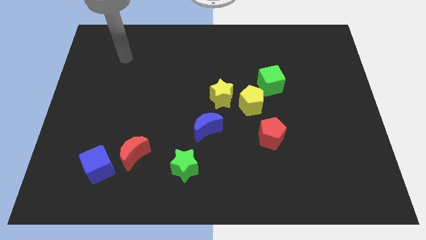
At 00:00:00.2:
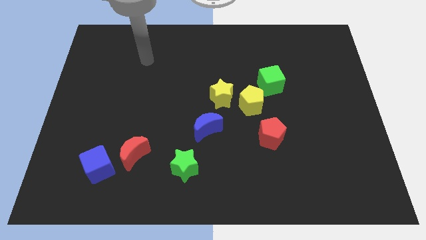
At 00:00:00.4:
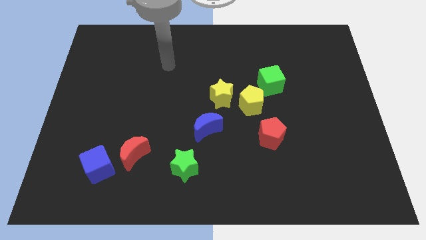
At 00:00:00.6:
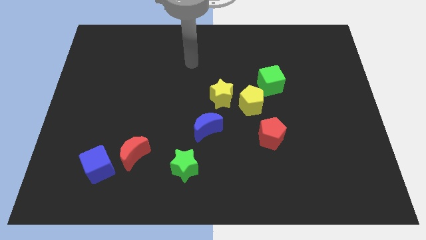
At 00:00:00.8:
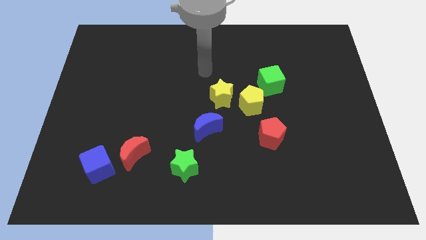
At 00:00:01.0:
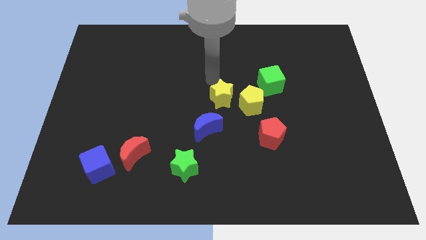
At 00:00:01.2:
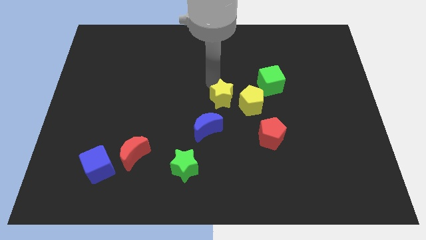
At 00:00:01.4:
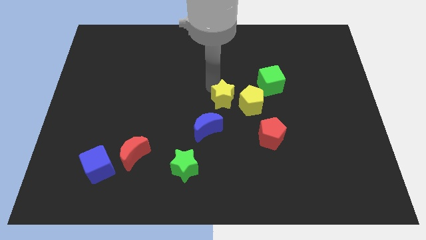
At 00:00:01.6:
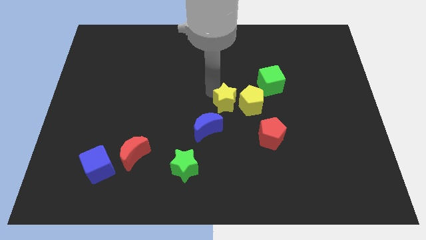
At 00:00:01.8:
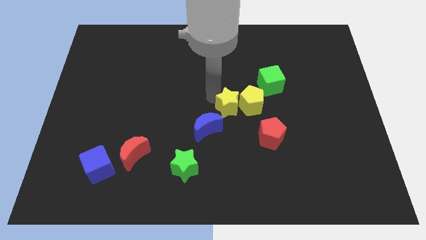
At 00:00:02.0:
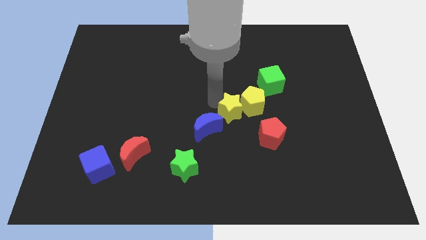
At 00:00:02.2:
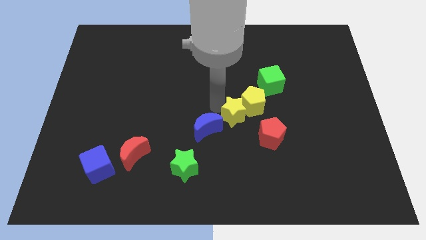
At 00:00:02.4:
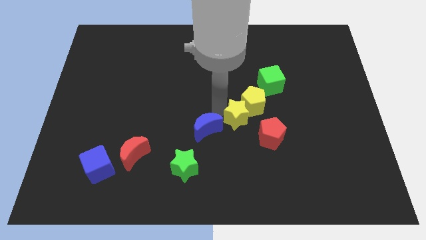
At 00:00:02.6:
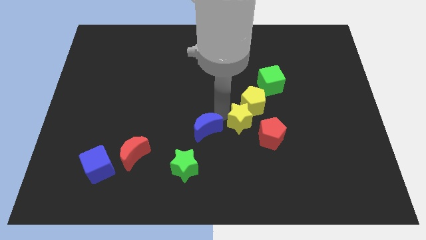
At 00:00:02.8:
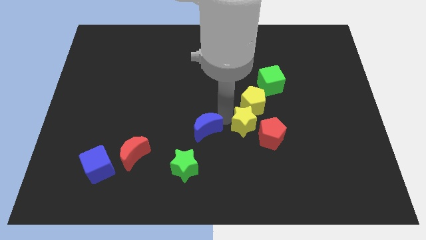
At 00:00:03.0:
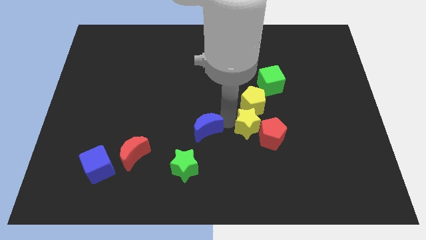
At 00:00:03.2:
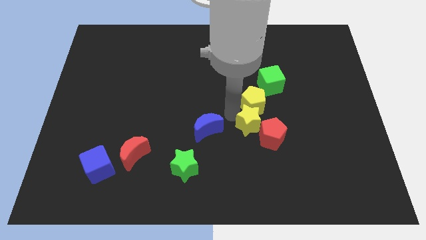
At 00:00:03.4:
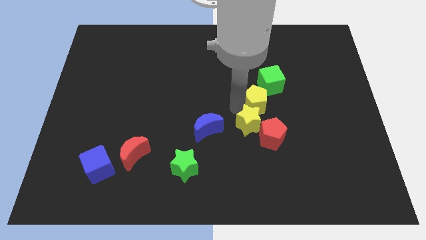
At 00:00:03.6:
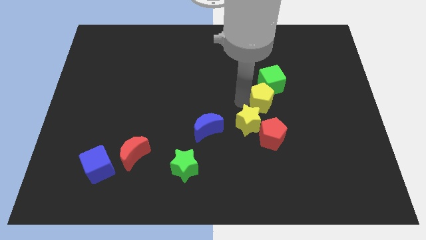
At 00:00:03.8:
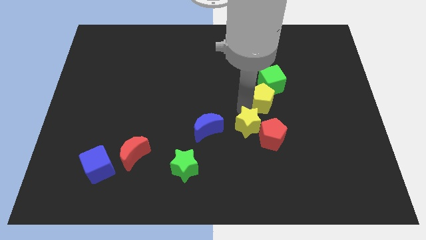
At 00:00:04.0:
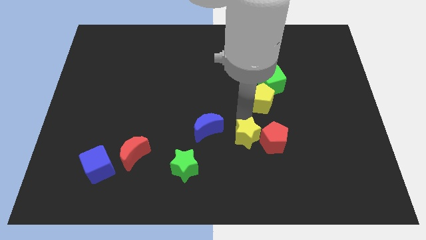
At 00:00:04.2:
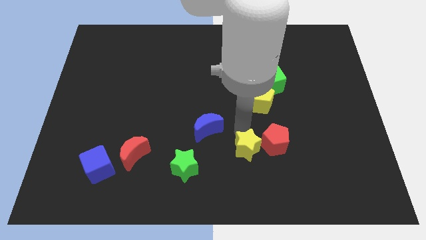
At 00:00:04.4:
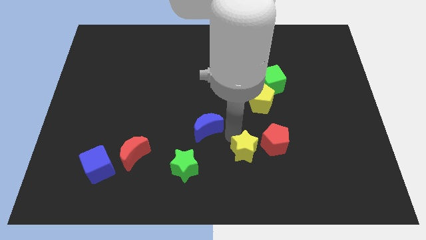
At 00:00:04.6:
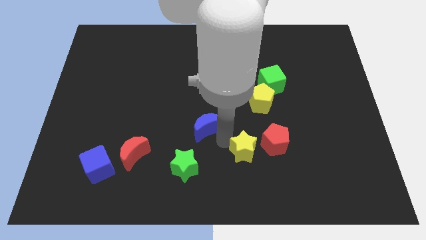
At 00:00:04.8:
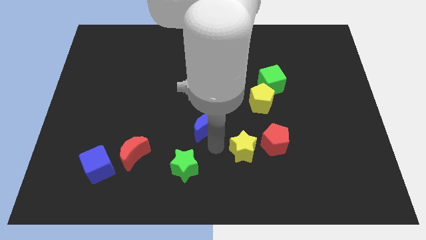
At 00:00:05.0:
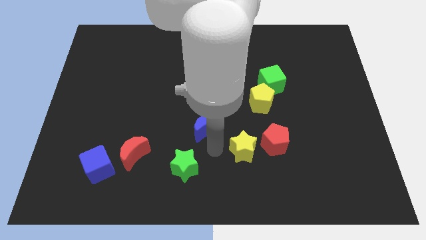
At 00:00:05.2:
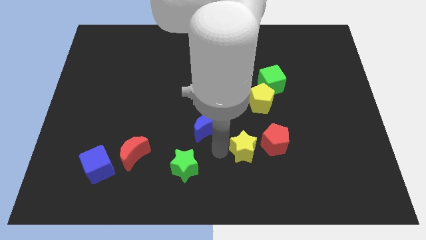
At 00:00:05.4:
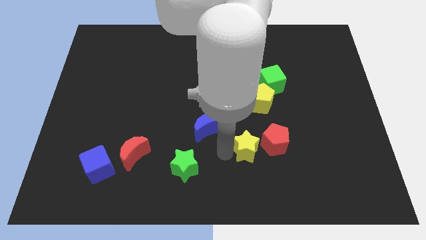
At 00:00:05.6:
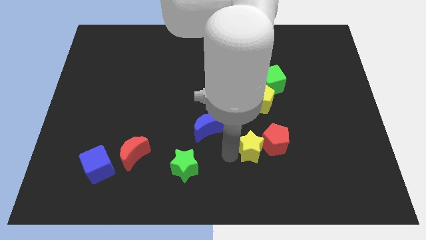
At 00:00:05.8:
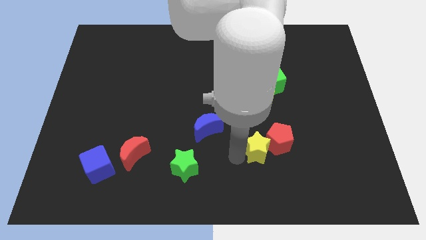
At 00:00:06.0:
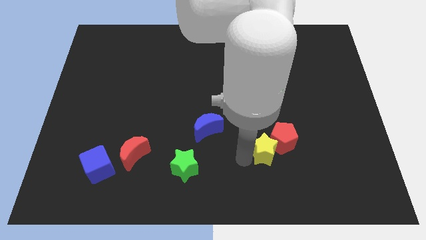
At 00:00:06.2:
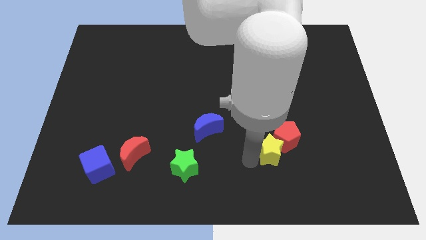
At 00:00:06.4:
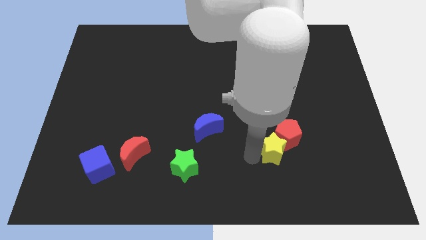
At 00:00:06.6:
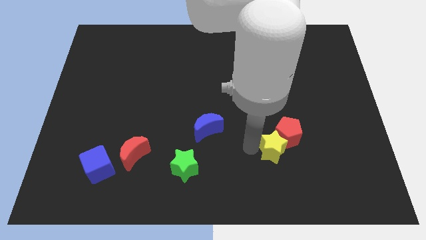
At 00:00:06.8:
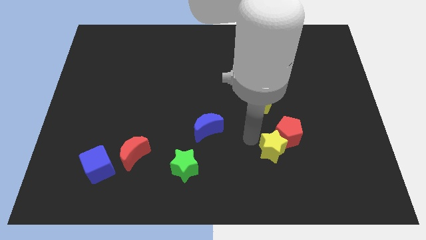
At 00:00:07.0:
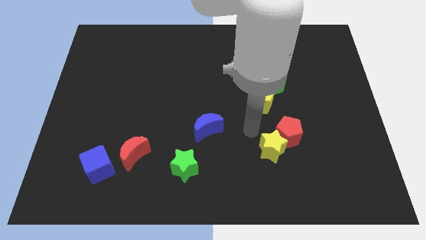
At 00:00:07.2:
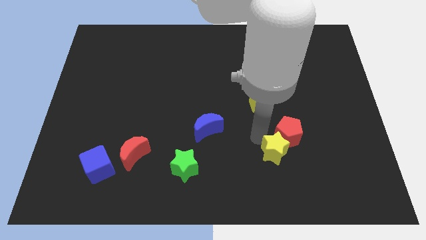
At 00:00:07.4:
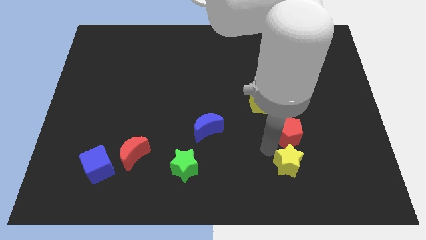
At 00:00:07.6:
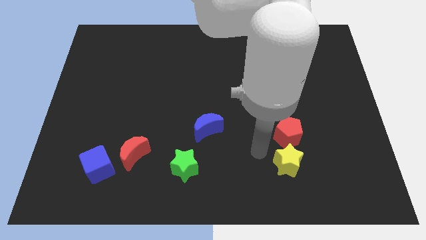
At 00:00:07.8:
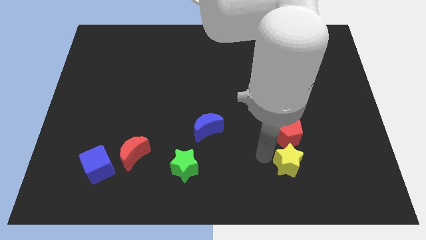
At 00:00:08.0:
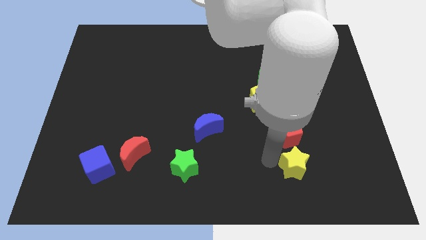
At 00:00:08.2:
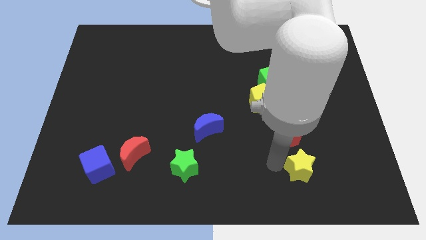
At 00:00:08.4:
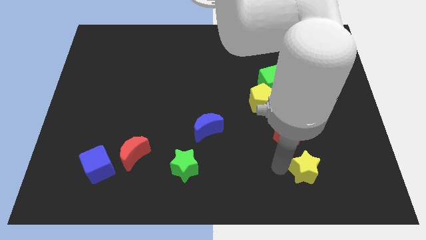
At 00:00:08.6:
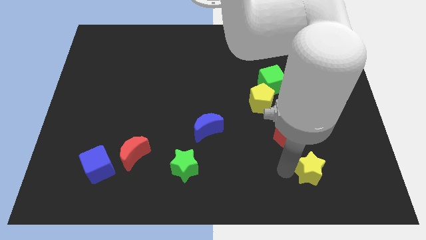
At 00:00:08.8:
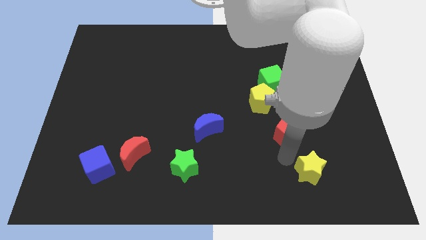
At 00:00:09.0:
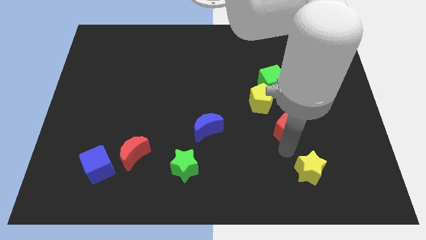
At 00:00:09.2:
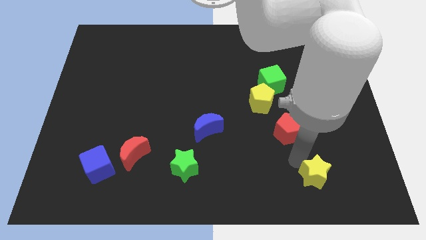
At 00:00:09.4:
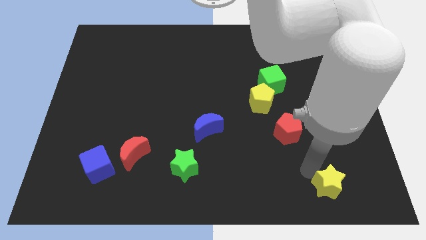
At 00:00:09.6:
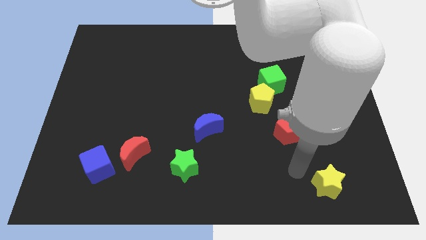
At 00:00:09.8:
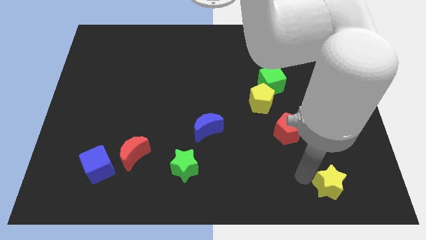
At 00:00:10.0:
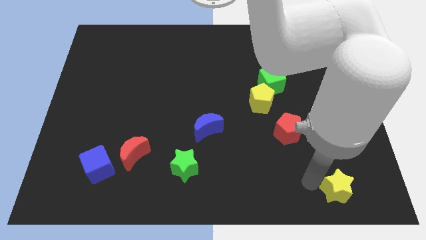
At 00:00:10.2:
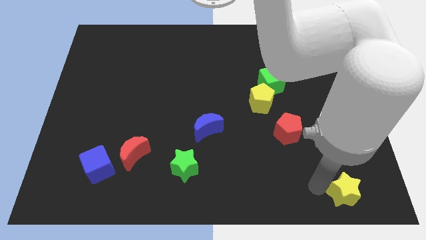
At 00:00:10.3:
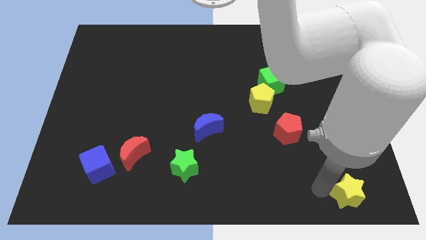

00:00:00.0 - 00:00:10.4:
move the yellow star to the bottom right corner
